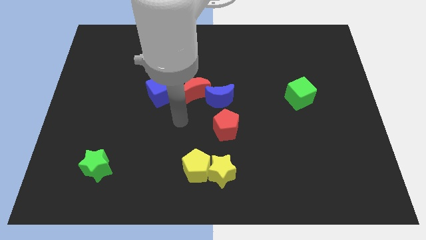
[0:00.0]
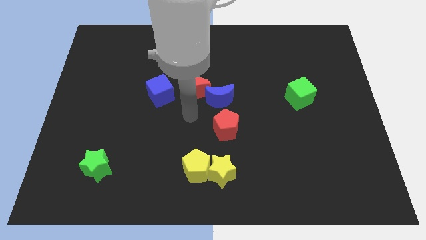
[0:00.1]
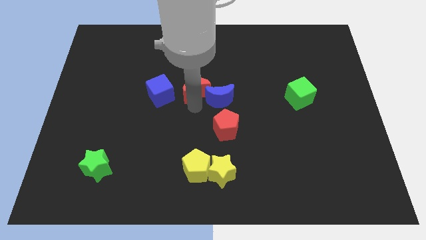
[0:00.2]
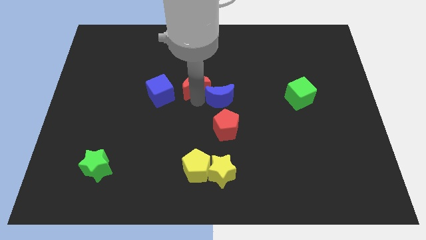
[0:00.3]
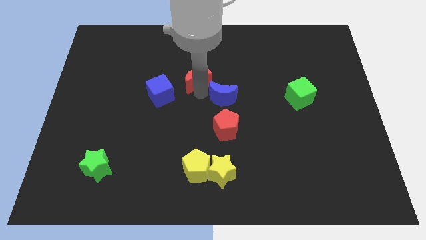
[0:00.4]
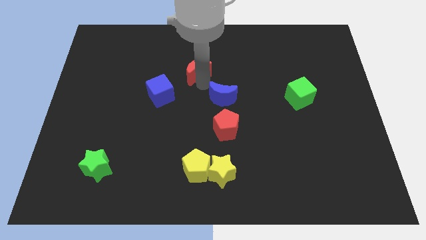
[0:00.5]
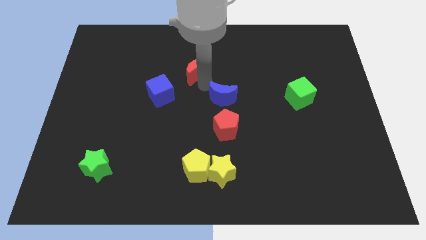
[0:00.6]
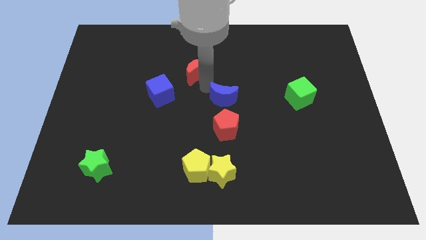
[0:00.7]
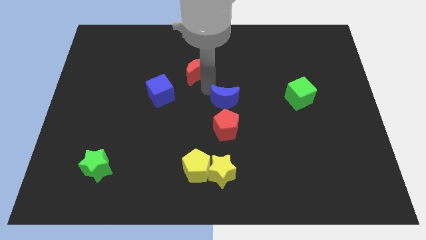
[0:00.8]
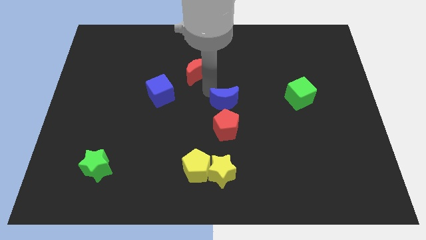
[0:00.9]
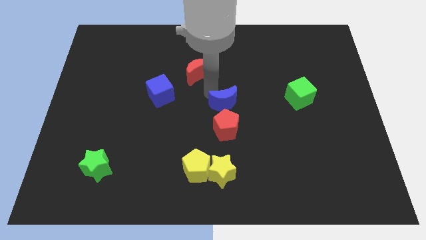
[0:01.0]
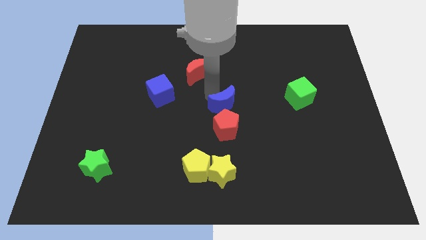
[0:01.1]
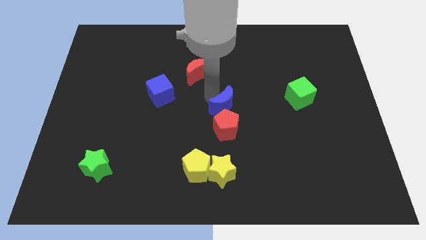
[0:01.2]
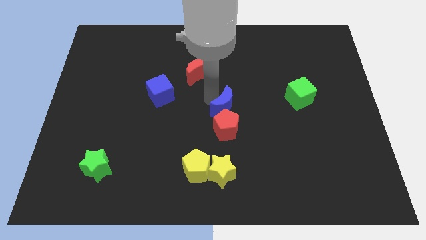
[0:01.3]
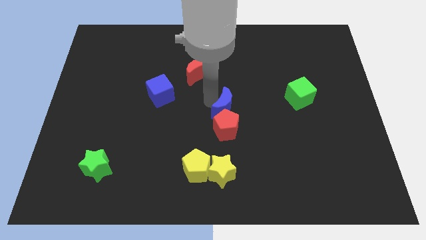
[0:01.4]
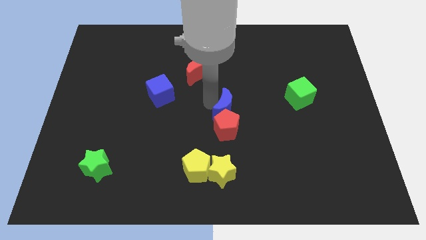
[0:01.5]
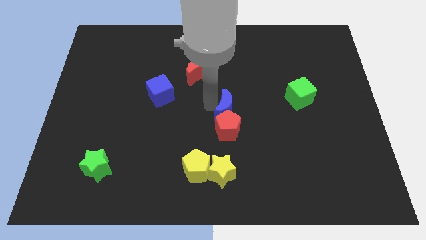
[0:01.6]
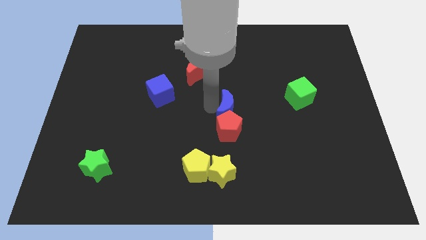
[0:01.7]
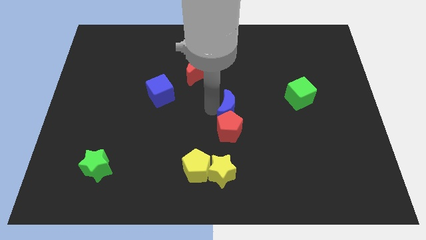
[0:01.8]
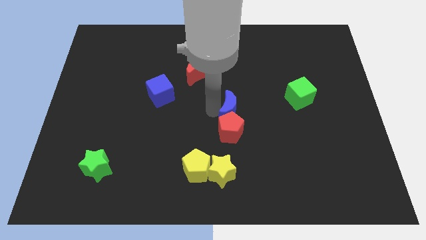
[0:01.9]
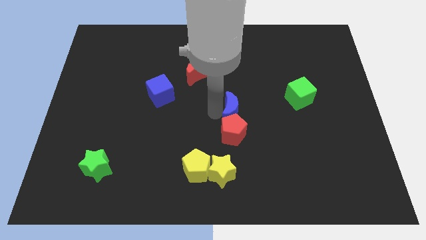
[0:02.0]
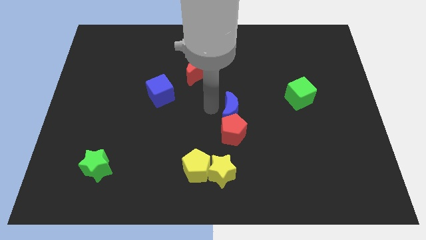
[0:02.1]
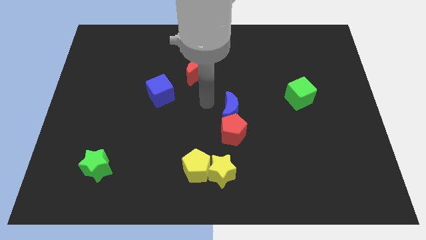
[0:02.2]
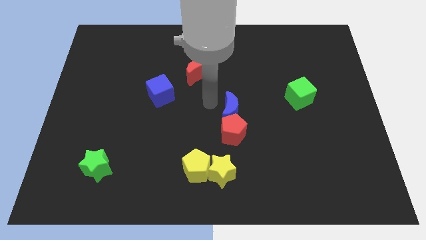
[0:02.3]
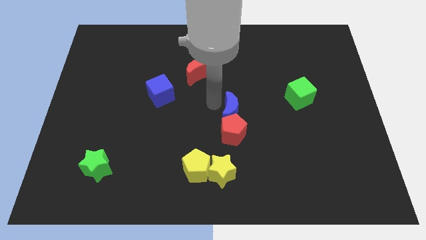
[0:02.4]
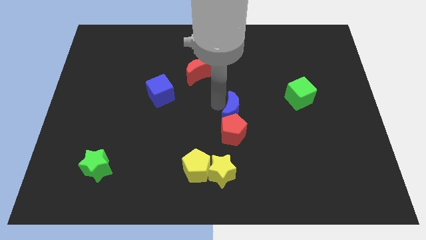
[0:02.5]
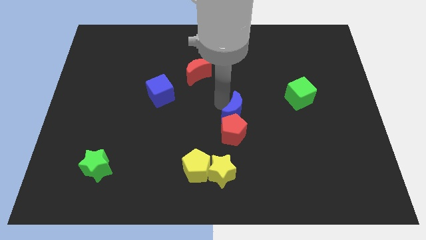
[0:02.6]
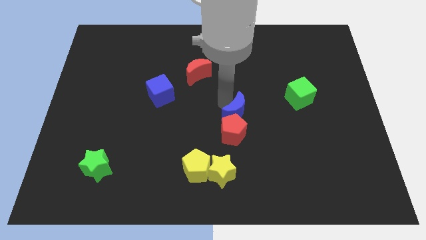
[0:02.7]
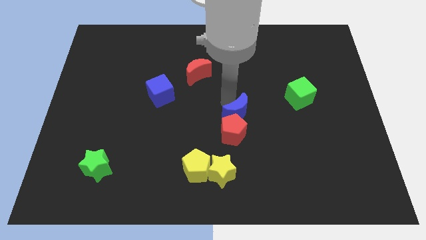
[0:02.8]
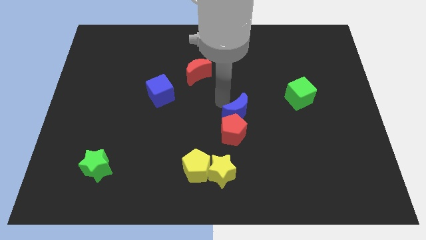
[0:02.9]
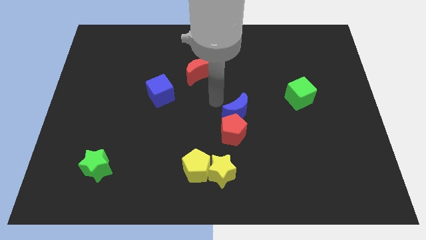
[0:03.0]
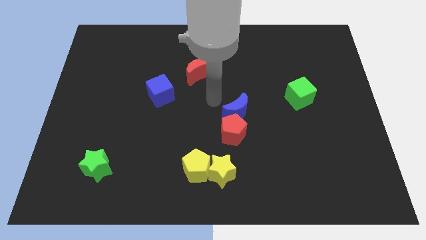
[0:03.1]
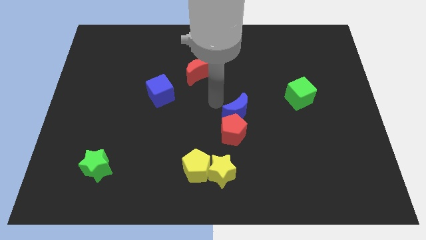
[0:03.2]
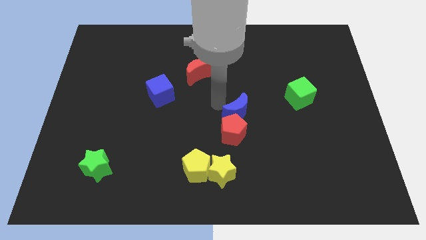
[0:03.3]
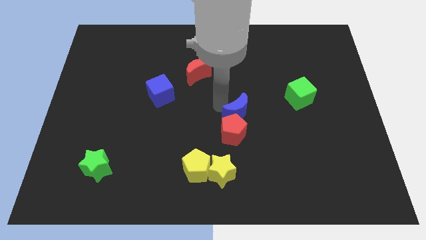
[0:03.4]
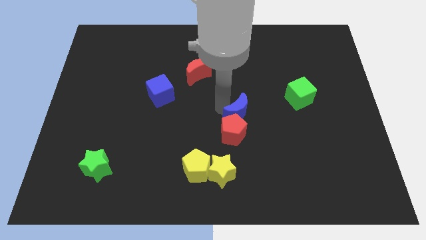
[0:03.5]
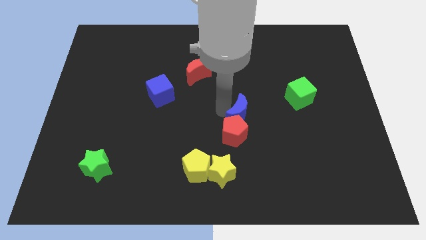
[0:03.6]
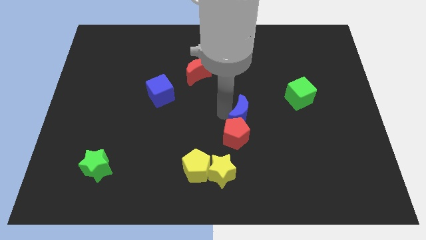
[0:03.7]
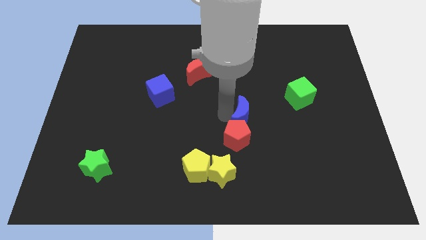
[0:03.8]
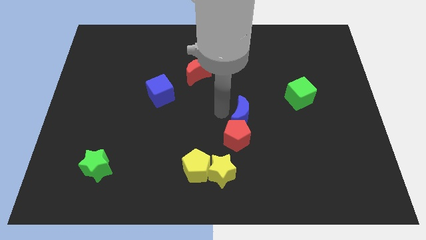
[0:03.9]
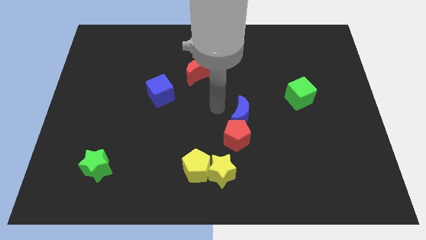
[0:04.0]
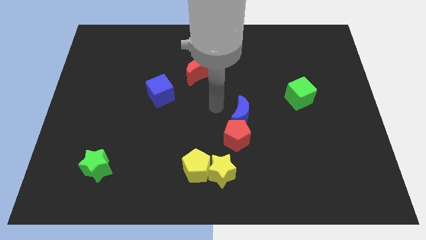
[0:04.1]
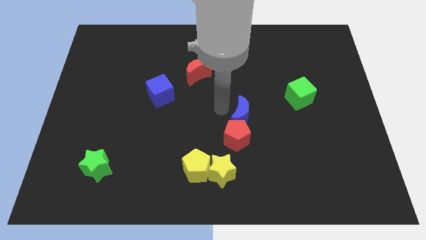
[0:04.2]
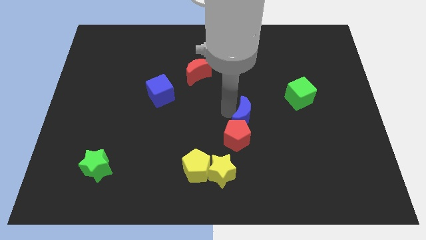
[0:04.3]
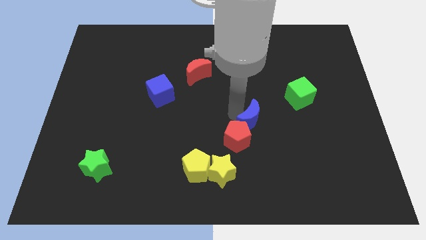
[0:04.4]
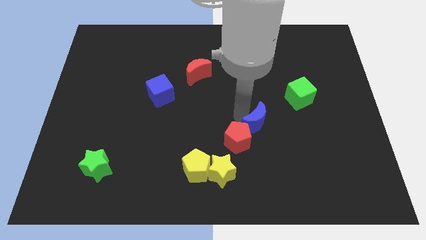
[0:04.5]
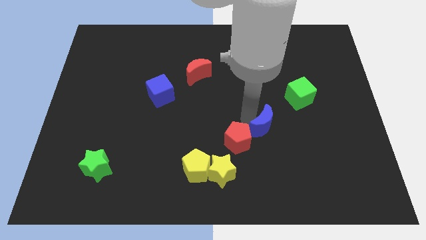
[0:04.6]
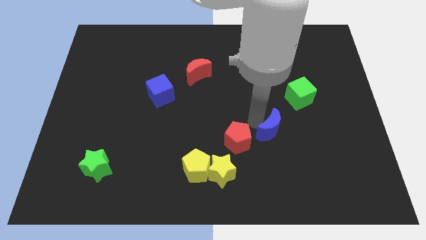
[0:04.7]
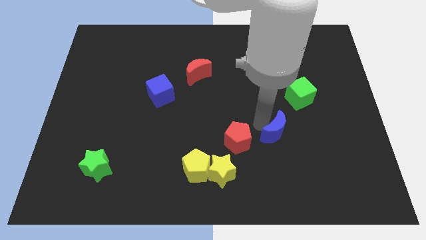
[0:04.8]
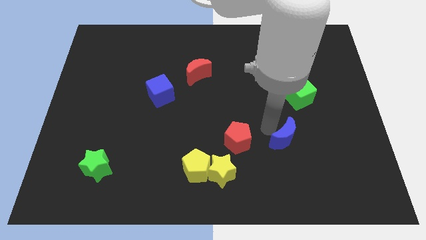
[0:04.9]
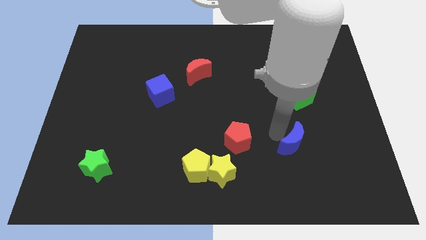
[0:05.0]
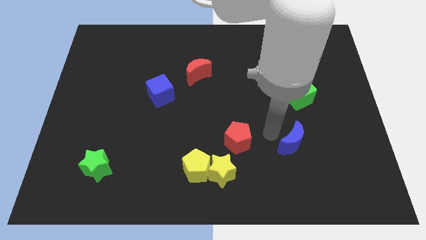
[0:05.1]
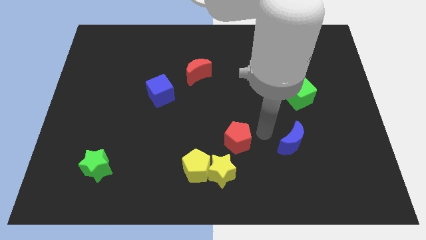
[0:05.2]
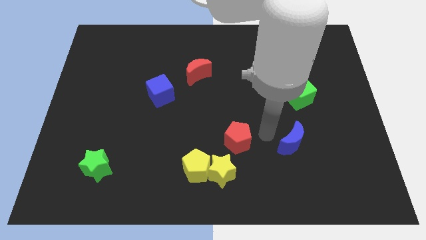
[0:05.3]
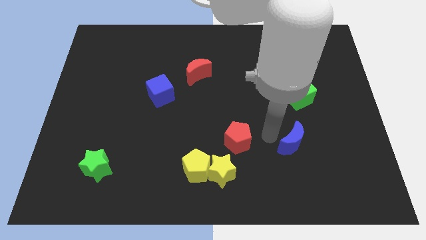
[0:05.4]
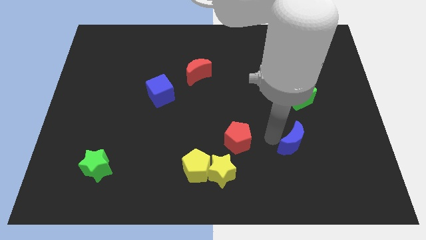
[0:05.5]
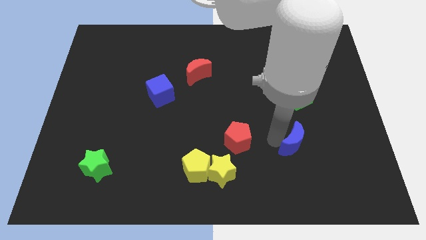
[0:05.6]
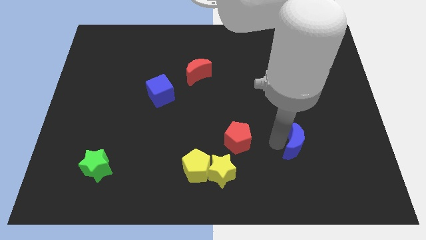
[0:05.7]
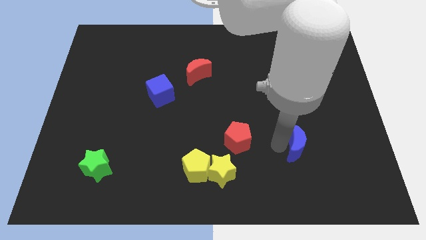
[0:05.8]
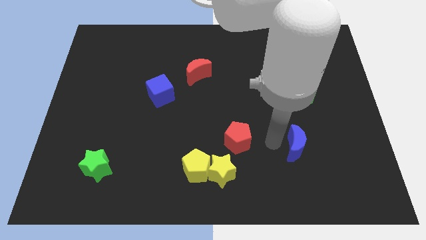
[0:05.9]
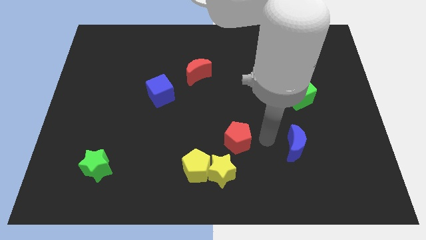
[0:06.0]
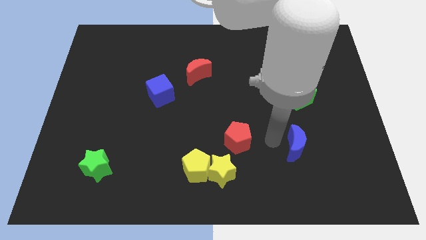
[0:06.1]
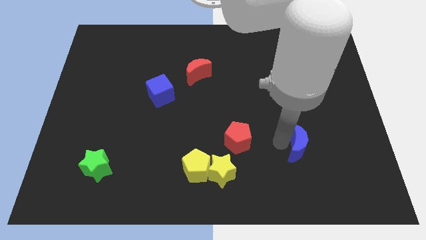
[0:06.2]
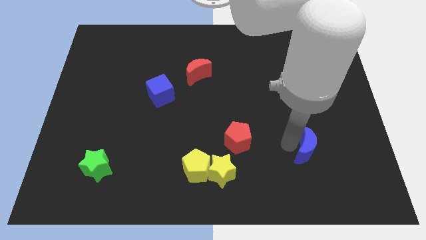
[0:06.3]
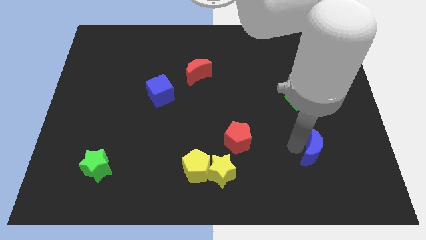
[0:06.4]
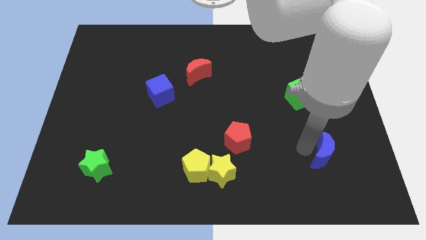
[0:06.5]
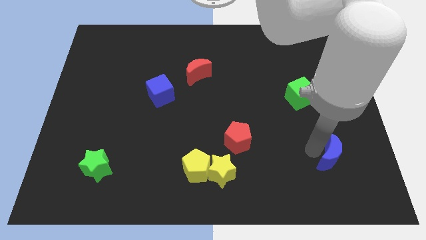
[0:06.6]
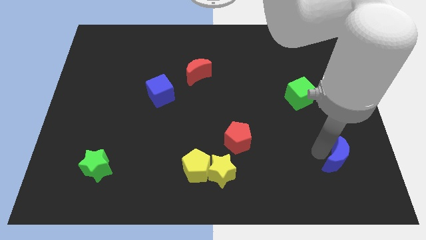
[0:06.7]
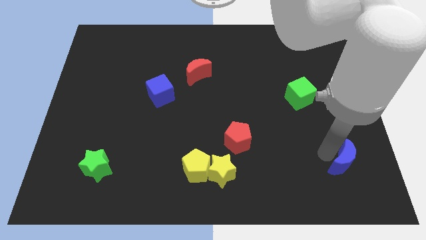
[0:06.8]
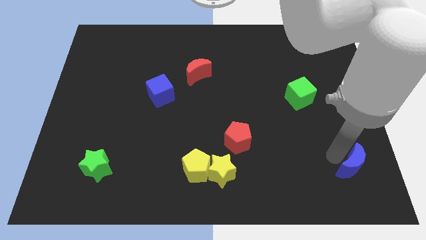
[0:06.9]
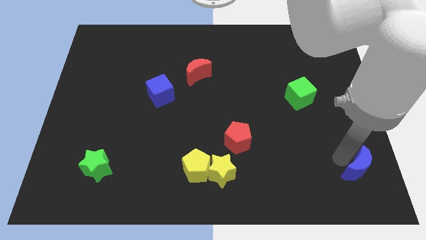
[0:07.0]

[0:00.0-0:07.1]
slide the blue moon to the bottom right of the board
